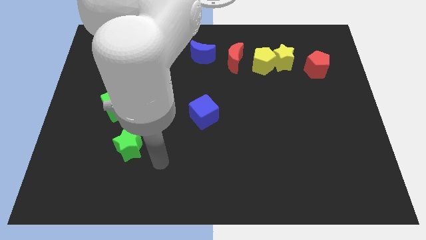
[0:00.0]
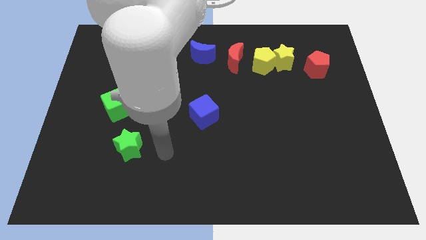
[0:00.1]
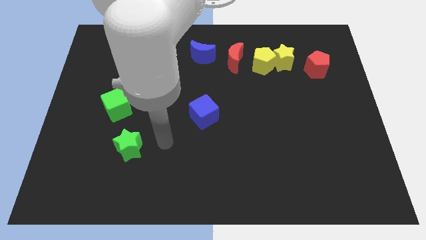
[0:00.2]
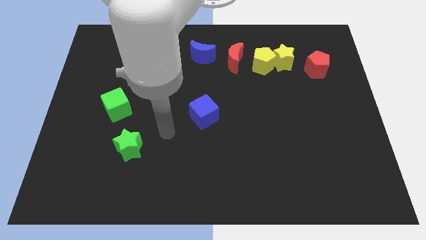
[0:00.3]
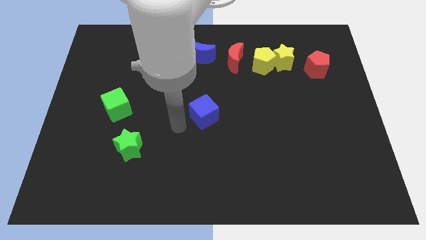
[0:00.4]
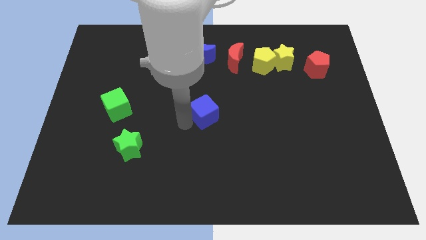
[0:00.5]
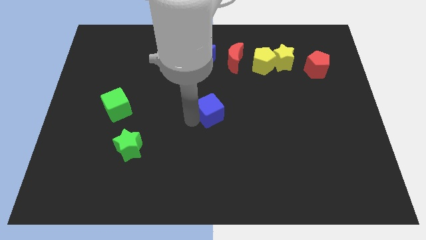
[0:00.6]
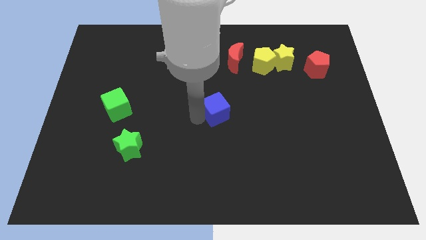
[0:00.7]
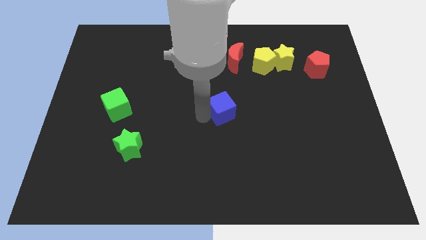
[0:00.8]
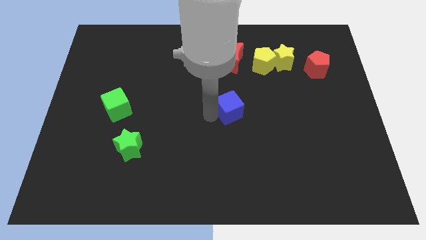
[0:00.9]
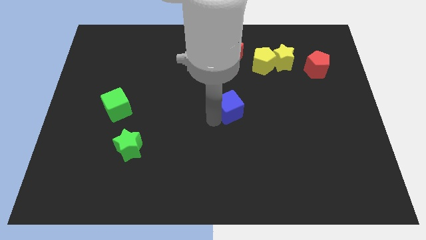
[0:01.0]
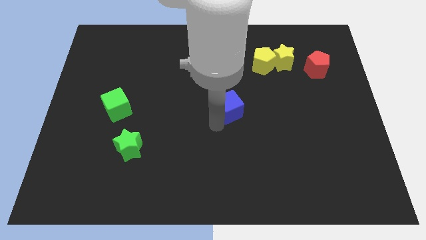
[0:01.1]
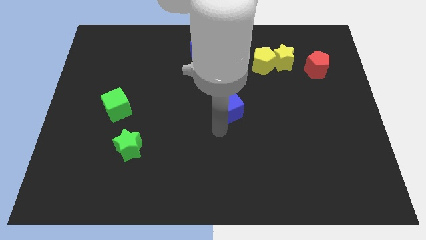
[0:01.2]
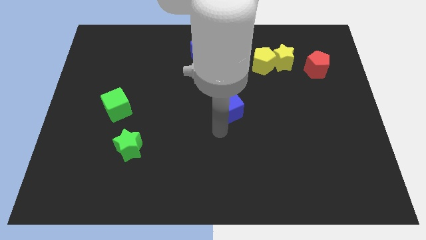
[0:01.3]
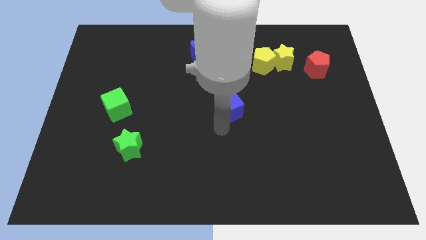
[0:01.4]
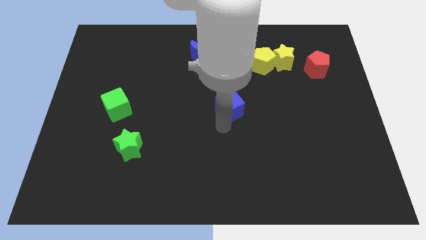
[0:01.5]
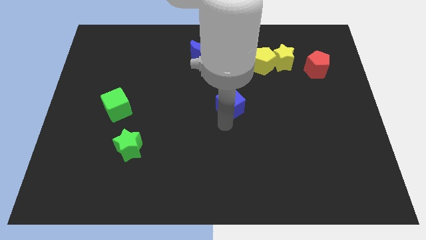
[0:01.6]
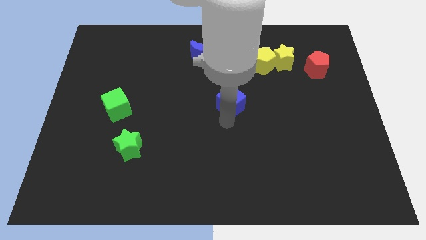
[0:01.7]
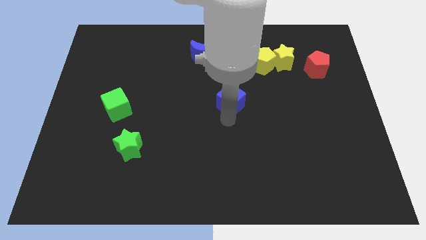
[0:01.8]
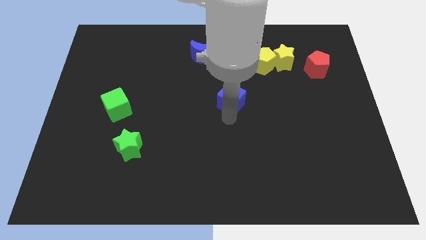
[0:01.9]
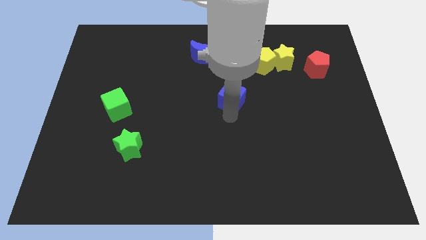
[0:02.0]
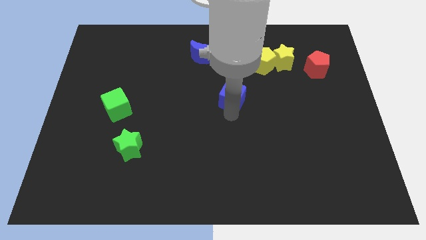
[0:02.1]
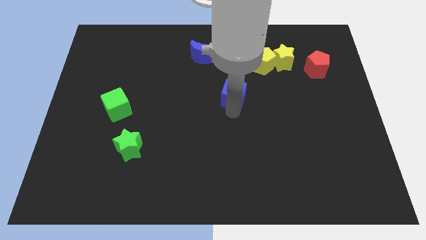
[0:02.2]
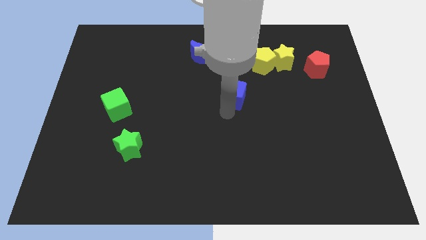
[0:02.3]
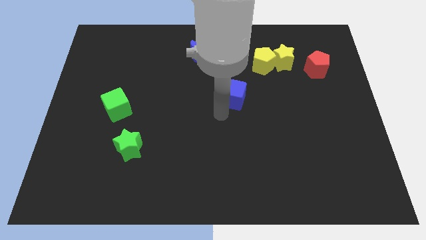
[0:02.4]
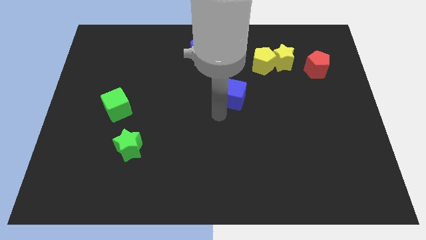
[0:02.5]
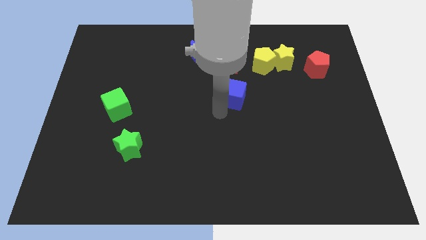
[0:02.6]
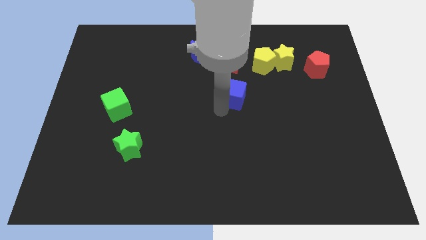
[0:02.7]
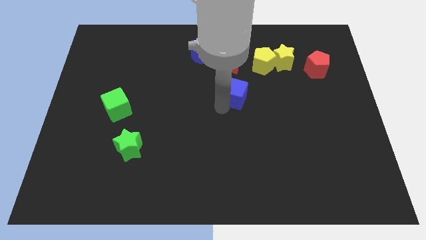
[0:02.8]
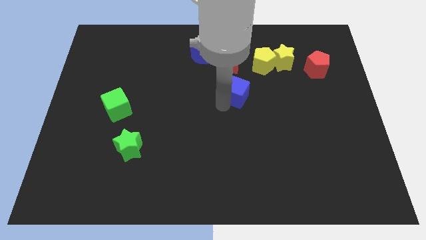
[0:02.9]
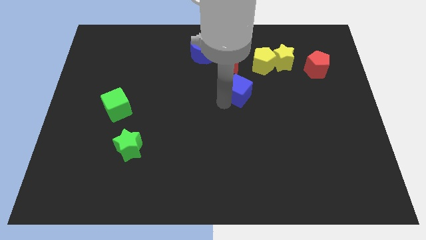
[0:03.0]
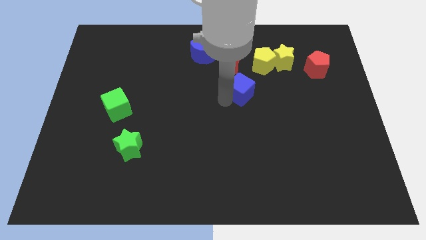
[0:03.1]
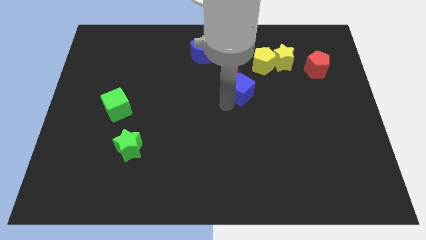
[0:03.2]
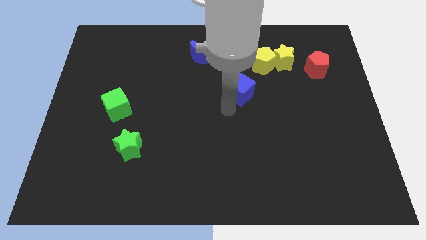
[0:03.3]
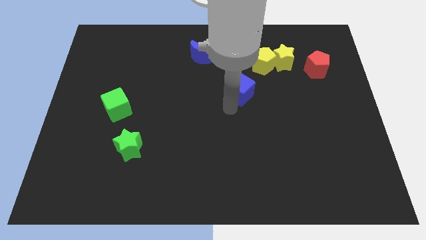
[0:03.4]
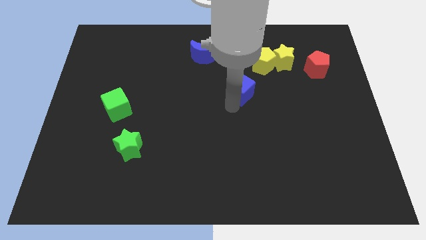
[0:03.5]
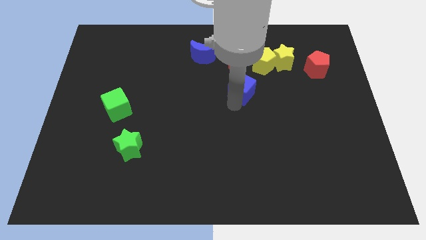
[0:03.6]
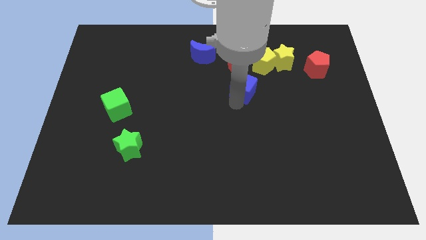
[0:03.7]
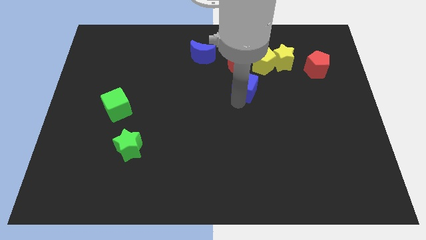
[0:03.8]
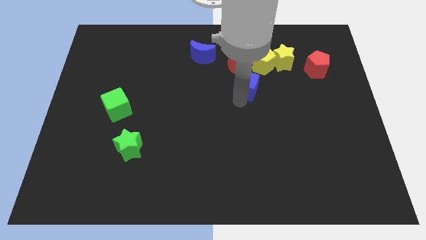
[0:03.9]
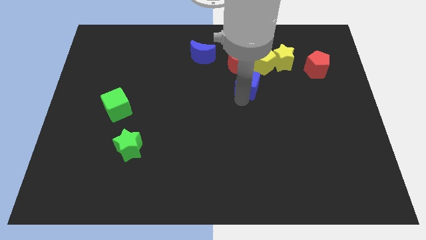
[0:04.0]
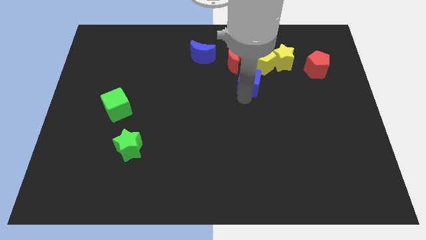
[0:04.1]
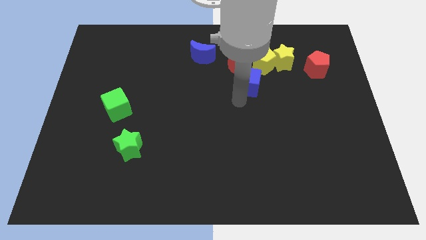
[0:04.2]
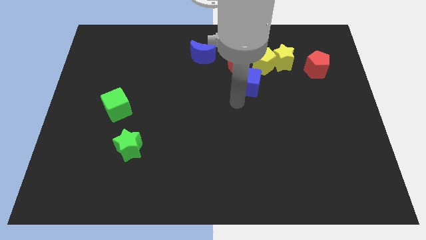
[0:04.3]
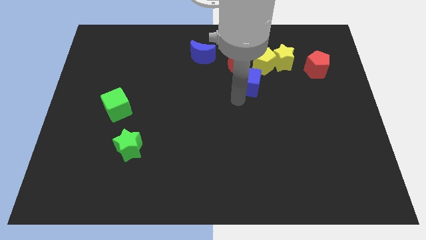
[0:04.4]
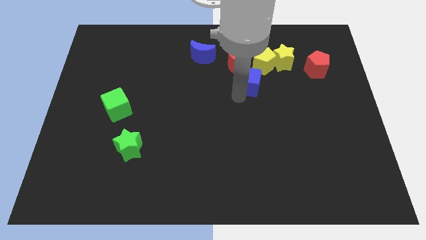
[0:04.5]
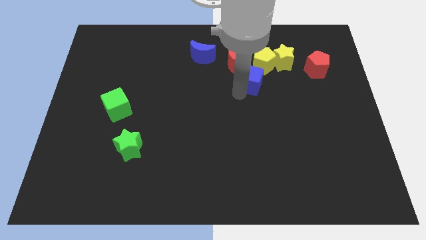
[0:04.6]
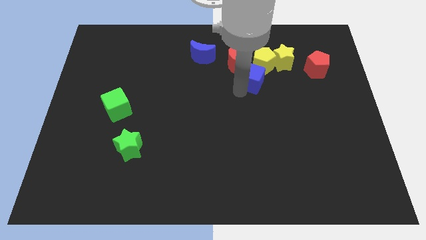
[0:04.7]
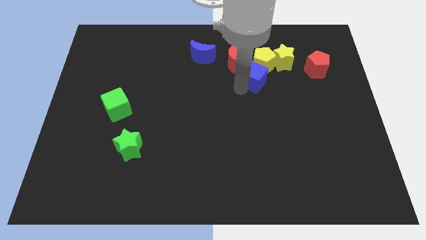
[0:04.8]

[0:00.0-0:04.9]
move the blue cube close to the yellow pentagon

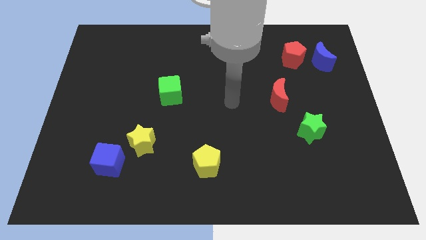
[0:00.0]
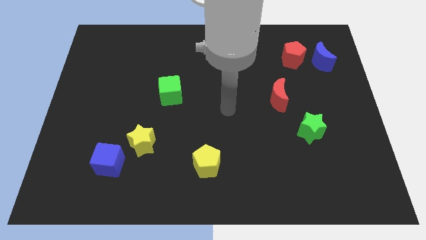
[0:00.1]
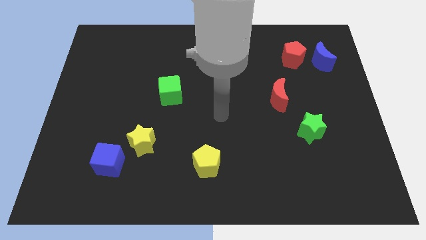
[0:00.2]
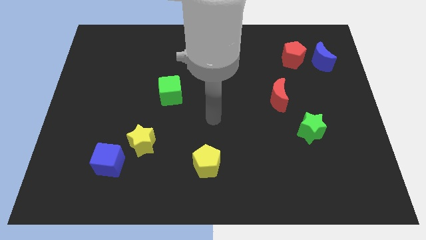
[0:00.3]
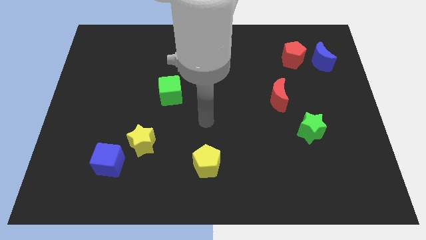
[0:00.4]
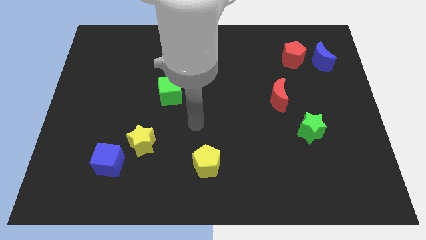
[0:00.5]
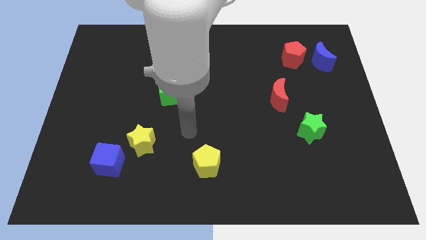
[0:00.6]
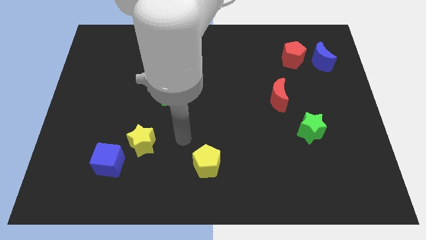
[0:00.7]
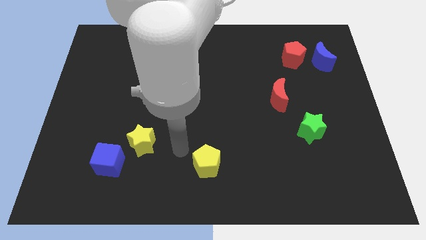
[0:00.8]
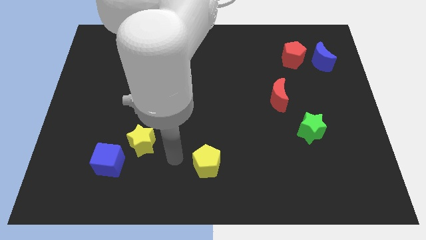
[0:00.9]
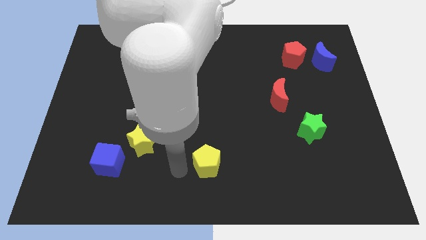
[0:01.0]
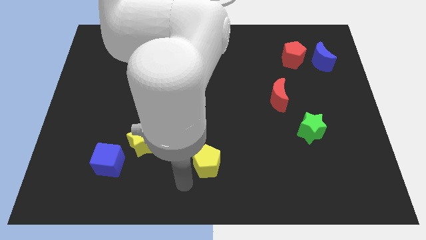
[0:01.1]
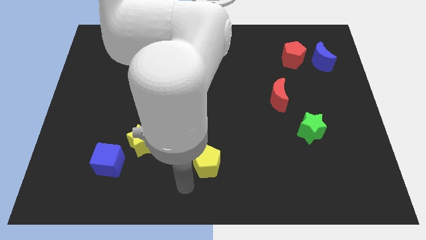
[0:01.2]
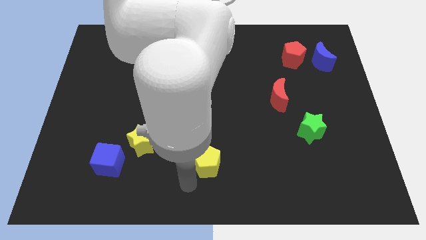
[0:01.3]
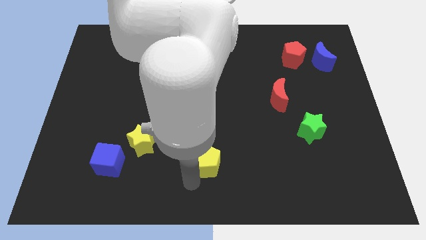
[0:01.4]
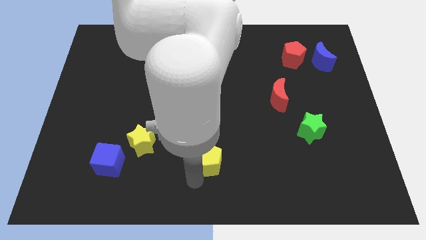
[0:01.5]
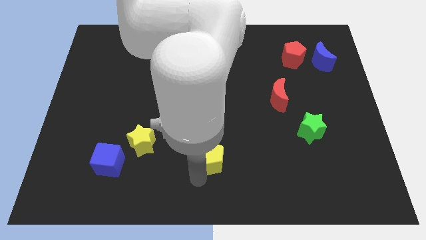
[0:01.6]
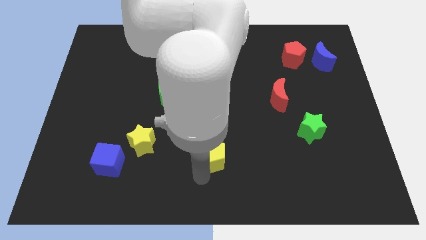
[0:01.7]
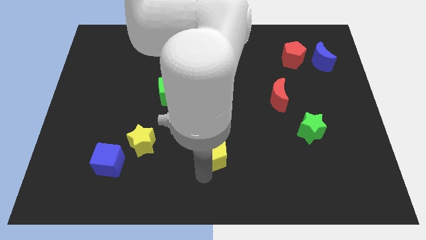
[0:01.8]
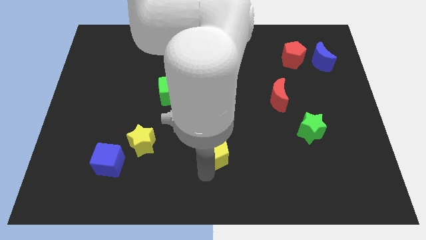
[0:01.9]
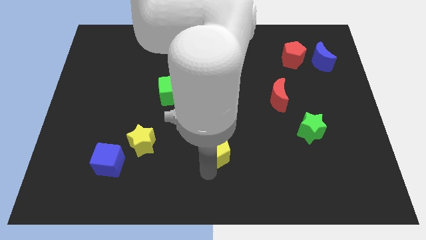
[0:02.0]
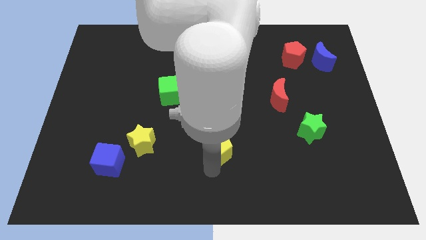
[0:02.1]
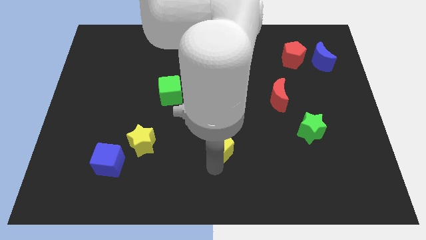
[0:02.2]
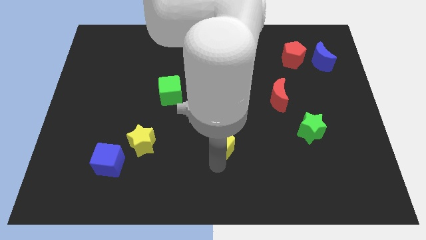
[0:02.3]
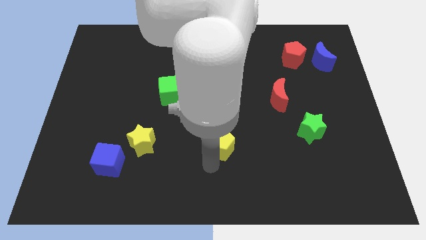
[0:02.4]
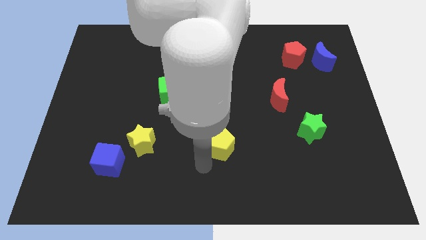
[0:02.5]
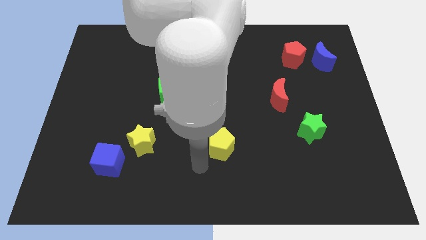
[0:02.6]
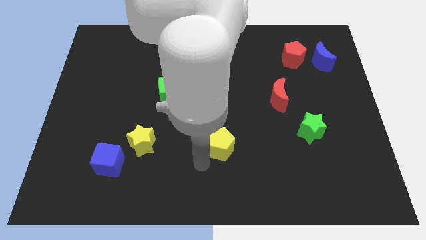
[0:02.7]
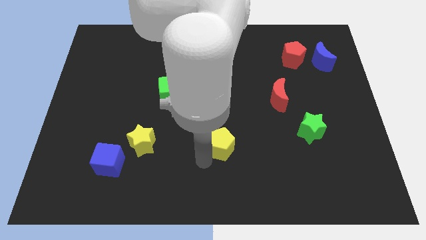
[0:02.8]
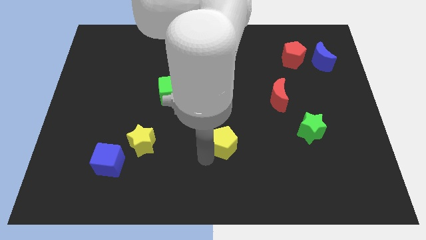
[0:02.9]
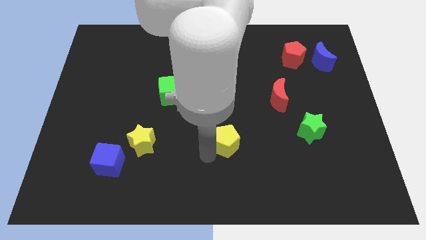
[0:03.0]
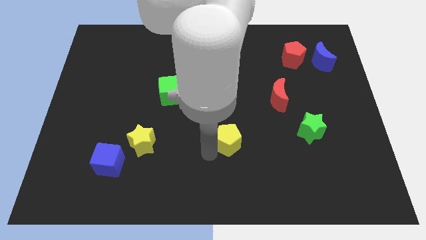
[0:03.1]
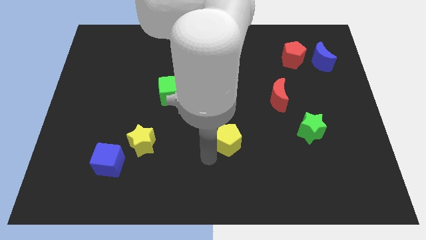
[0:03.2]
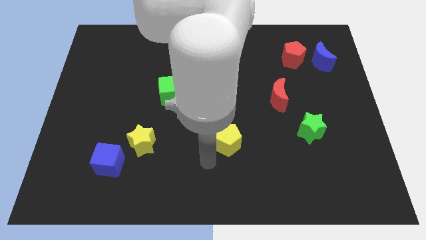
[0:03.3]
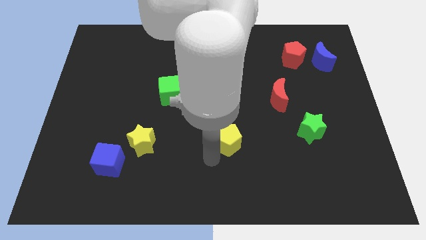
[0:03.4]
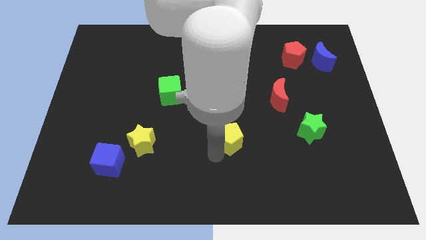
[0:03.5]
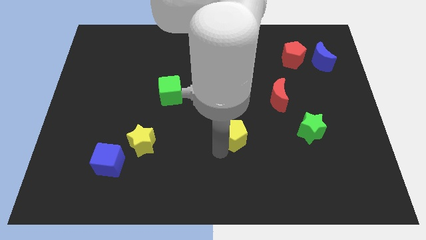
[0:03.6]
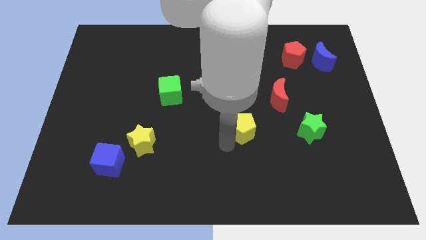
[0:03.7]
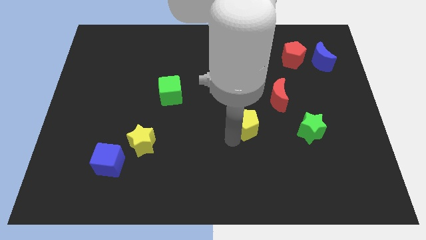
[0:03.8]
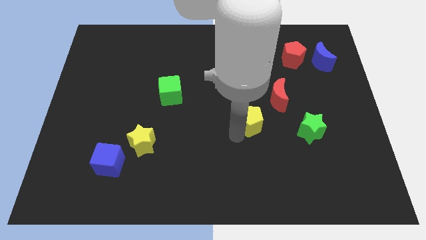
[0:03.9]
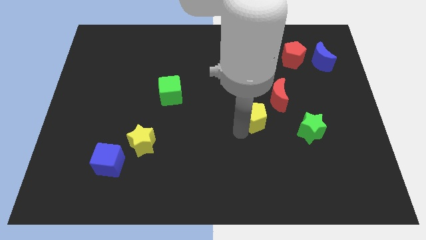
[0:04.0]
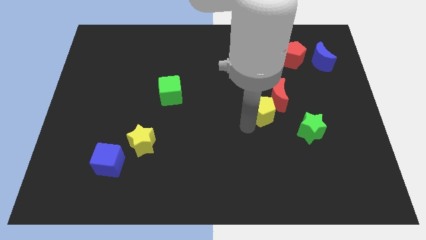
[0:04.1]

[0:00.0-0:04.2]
move the yellow pentagon towards the red moon
